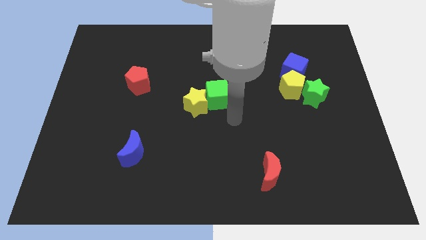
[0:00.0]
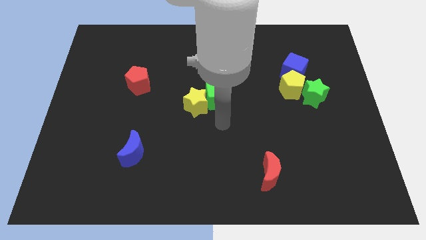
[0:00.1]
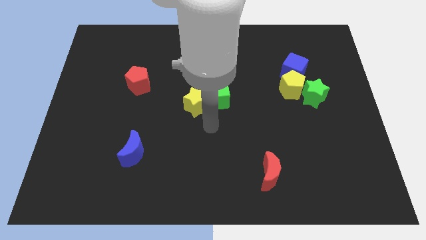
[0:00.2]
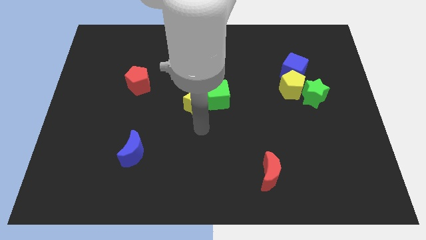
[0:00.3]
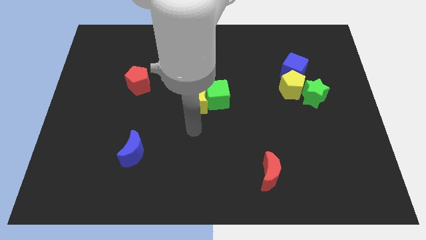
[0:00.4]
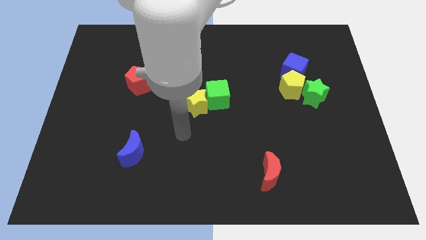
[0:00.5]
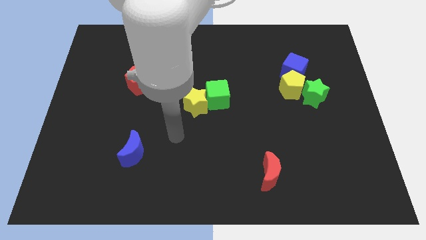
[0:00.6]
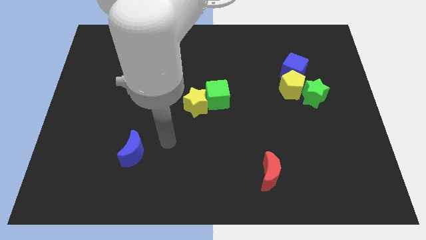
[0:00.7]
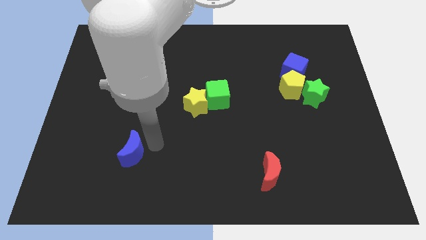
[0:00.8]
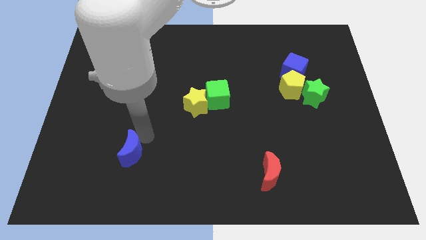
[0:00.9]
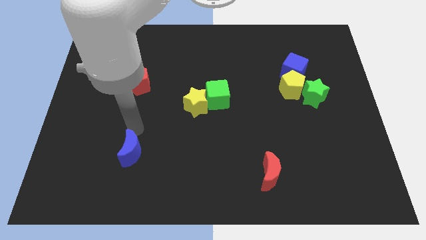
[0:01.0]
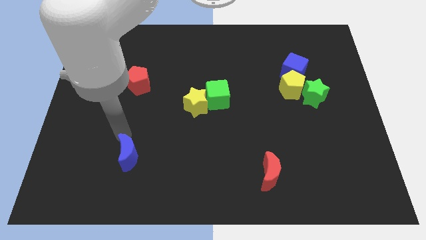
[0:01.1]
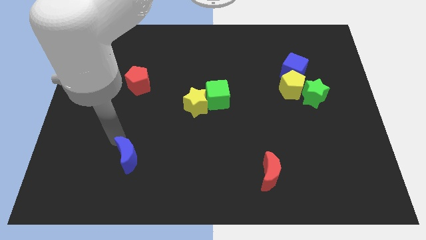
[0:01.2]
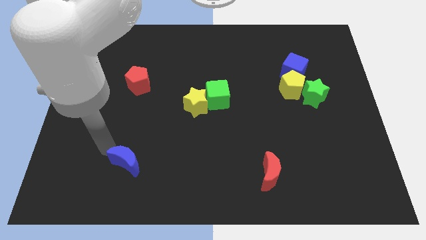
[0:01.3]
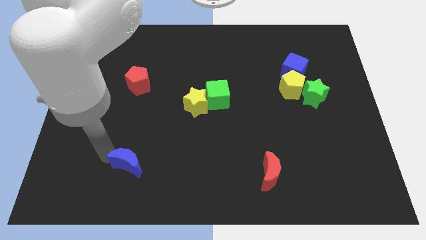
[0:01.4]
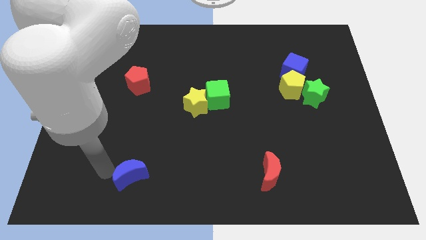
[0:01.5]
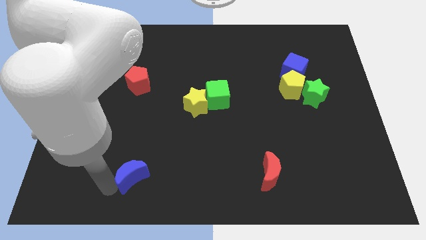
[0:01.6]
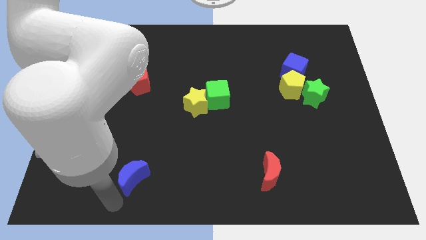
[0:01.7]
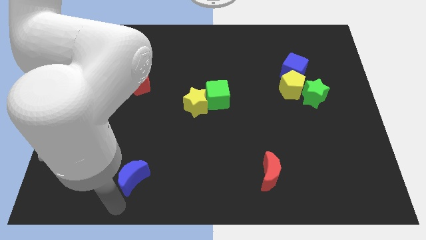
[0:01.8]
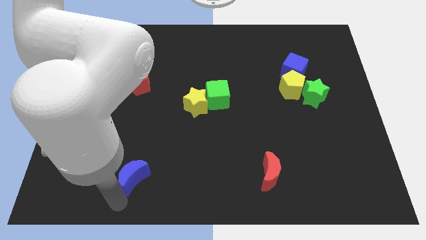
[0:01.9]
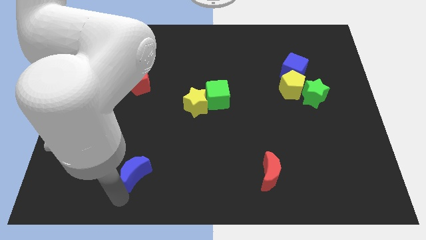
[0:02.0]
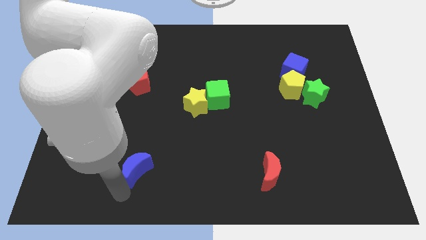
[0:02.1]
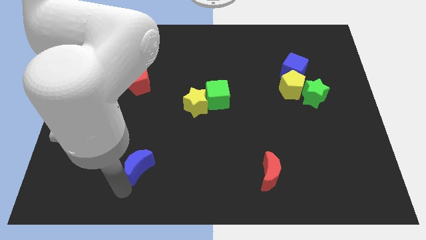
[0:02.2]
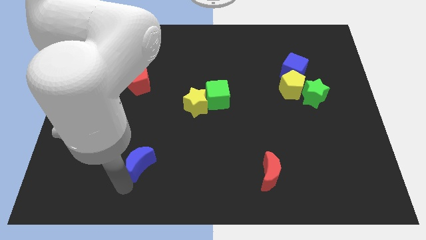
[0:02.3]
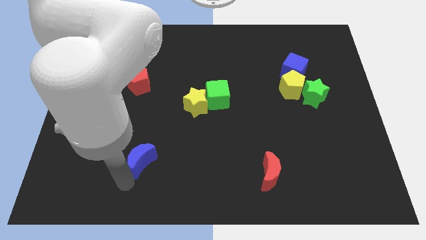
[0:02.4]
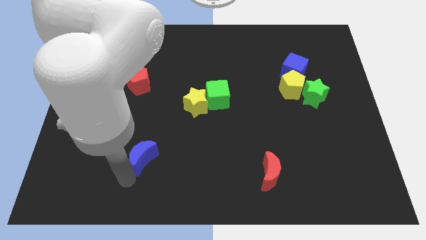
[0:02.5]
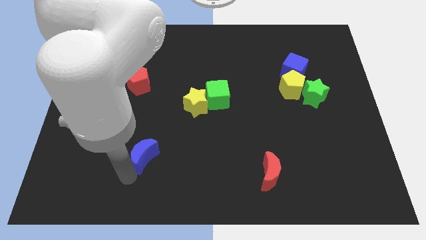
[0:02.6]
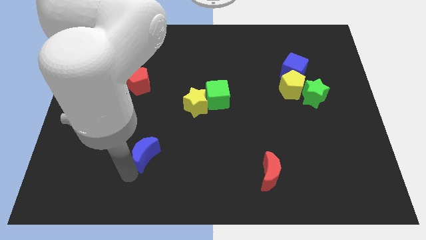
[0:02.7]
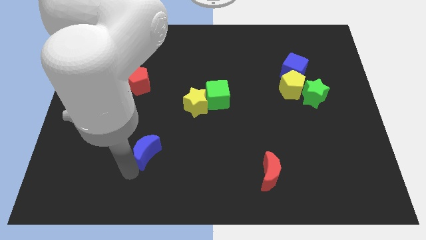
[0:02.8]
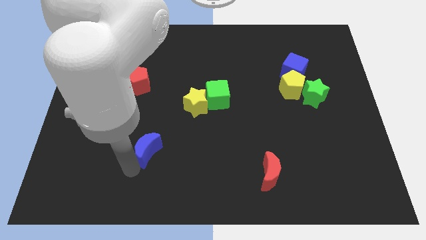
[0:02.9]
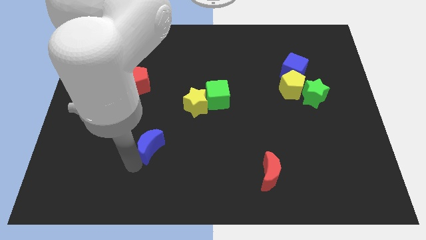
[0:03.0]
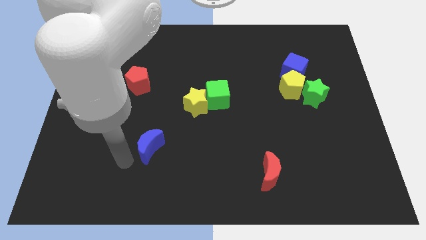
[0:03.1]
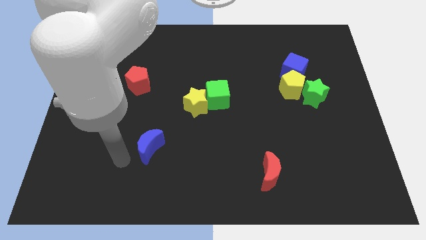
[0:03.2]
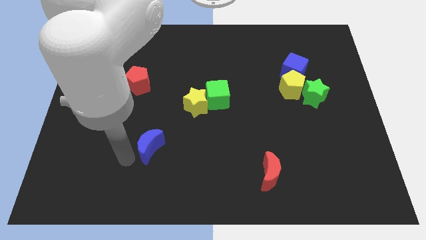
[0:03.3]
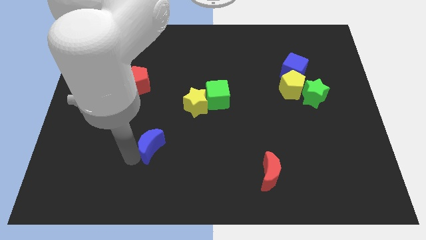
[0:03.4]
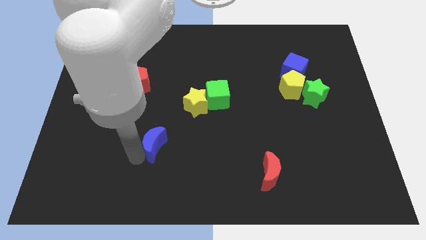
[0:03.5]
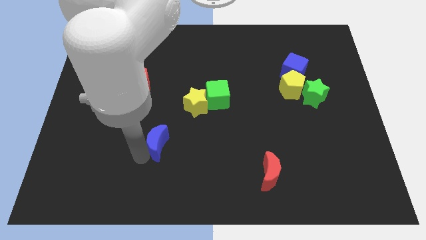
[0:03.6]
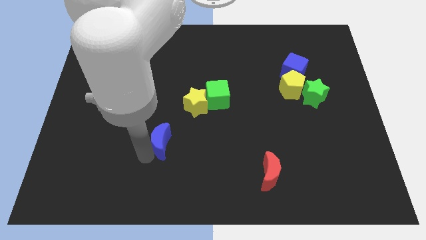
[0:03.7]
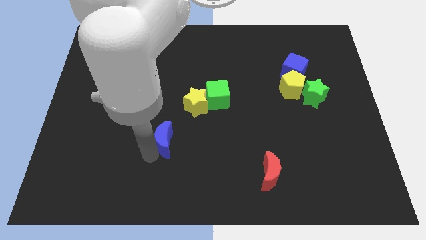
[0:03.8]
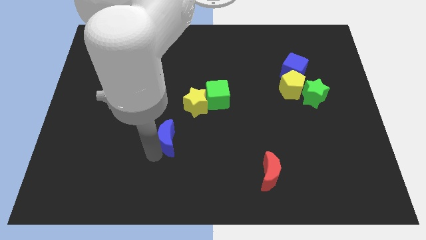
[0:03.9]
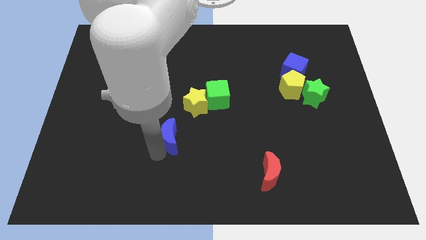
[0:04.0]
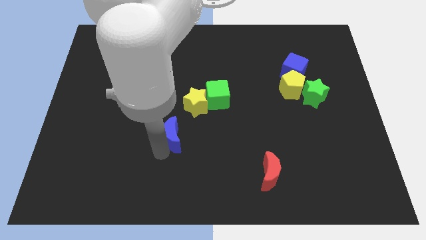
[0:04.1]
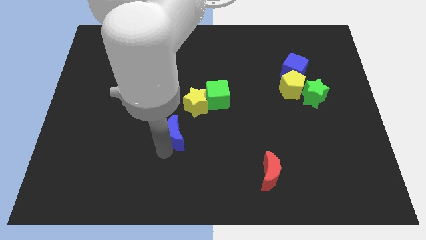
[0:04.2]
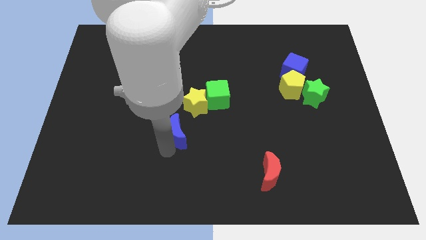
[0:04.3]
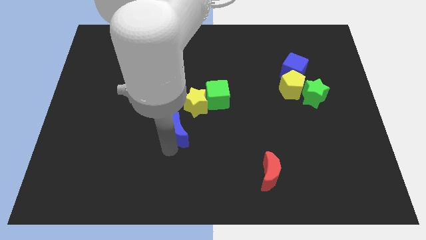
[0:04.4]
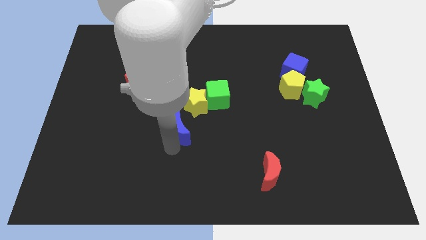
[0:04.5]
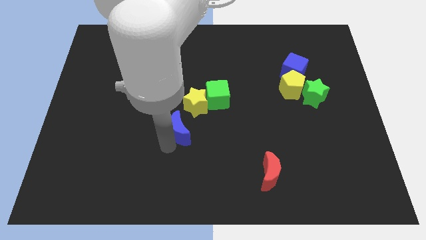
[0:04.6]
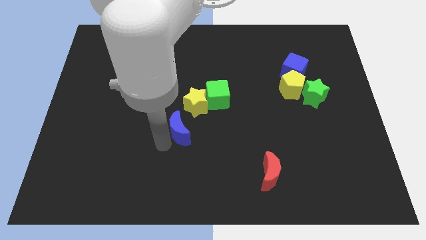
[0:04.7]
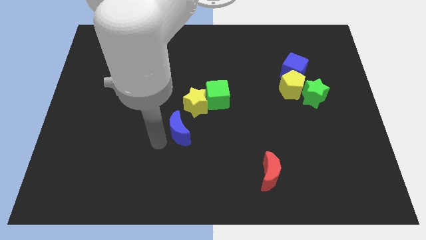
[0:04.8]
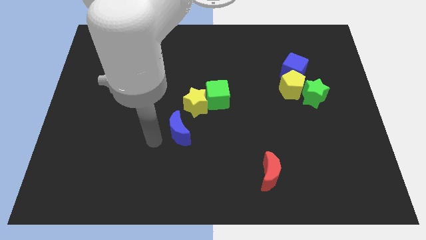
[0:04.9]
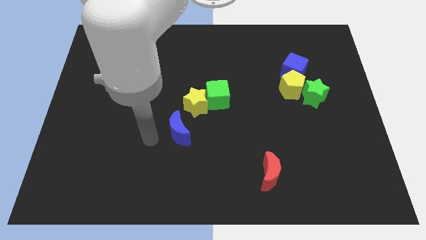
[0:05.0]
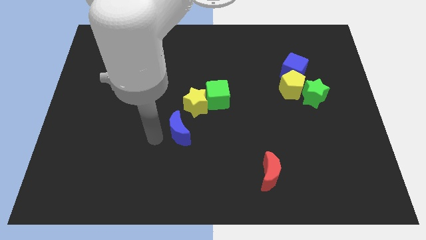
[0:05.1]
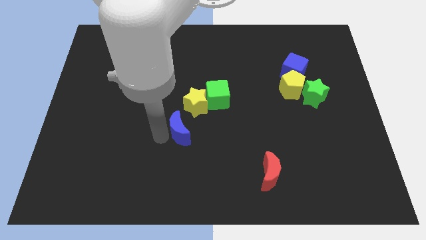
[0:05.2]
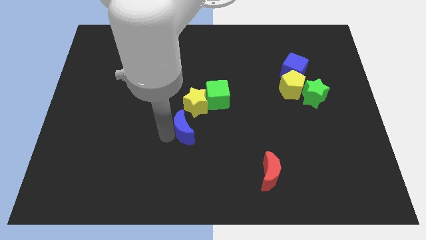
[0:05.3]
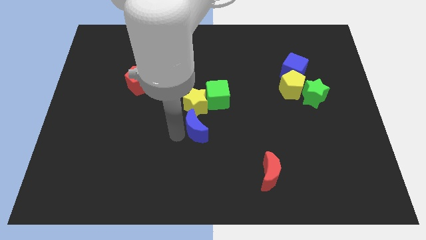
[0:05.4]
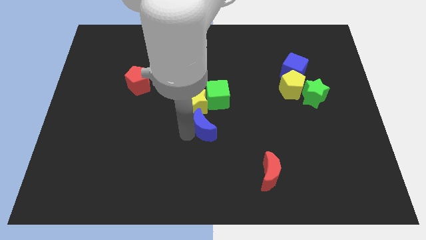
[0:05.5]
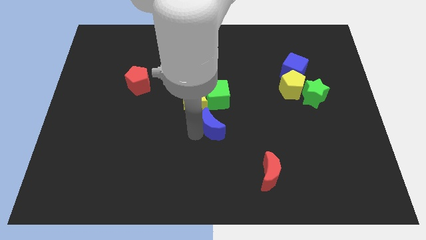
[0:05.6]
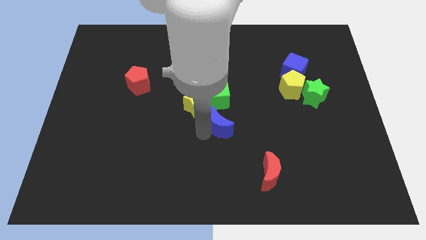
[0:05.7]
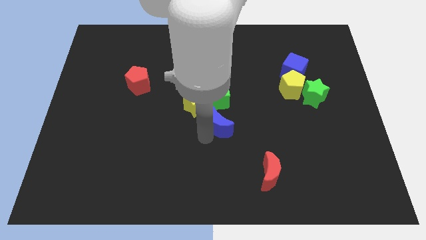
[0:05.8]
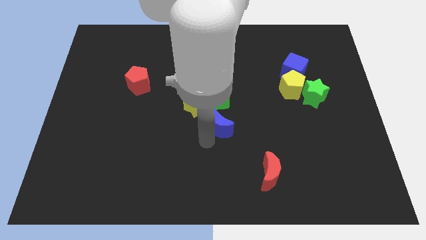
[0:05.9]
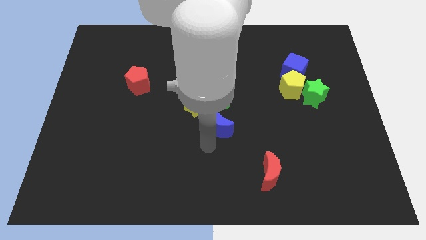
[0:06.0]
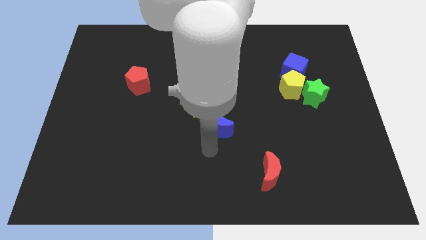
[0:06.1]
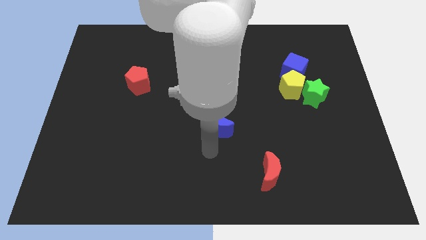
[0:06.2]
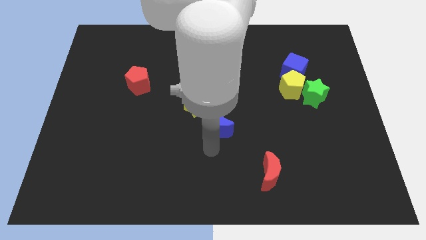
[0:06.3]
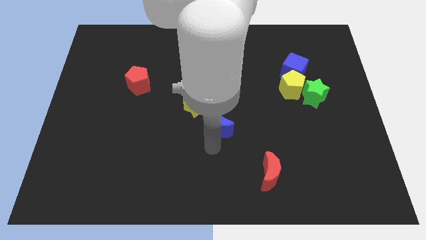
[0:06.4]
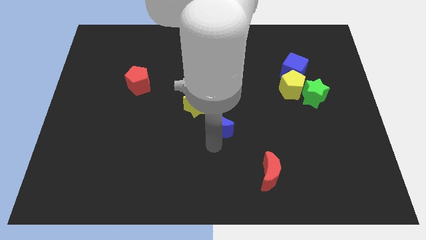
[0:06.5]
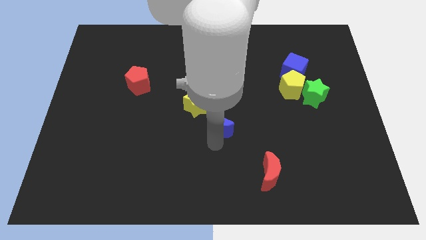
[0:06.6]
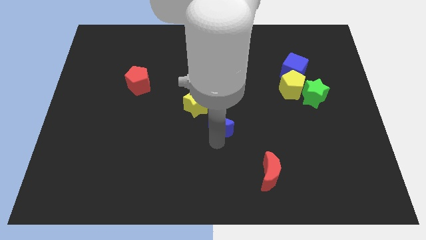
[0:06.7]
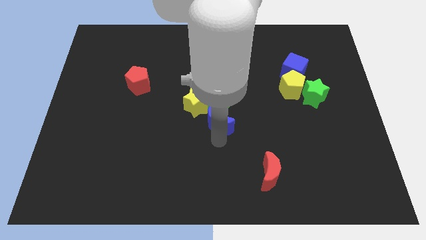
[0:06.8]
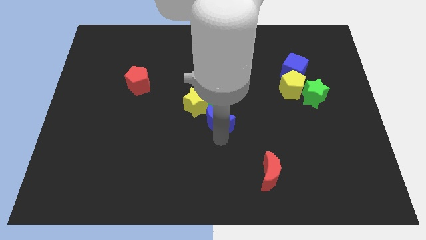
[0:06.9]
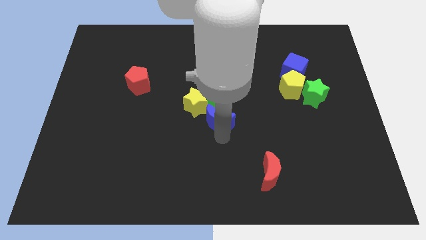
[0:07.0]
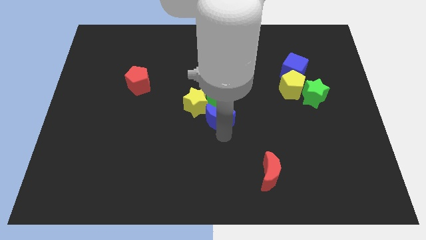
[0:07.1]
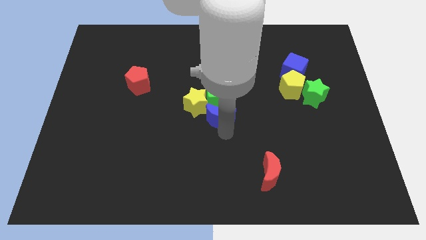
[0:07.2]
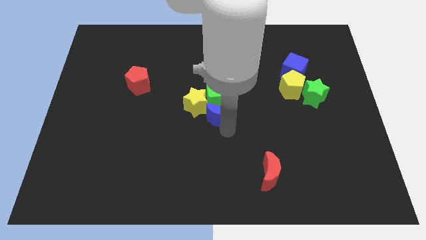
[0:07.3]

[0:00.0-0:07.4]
slide the blue moon towards the green cube
